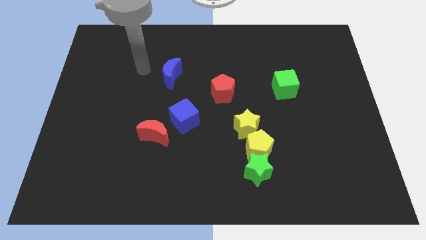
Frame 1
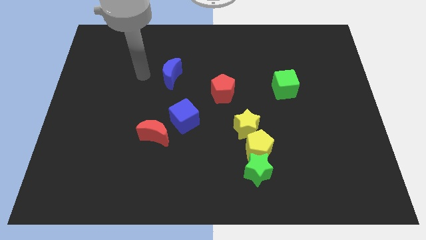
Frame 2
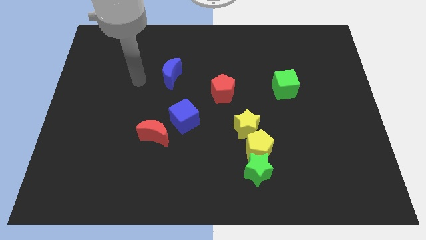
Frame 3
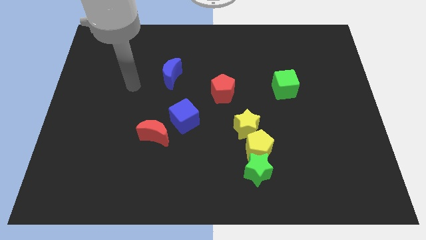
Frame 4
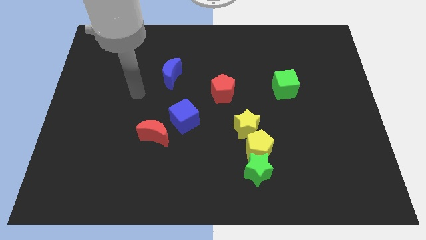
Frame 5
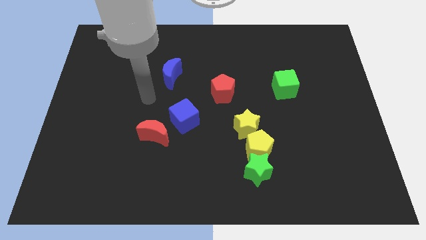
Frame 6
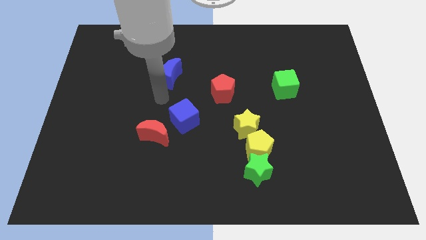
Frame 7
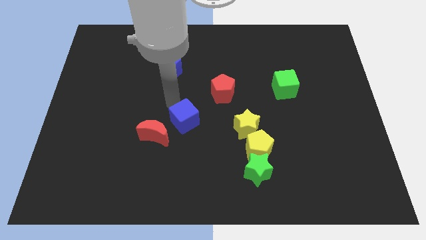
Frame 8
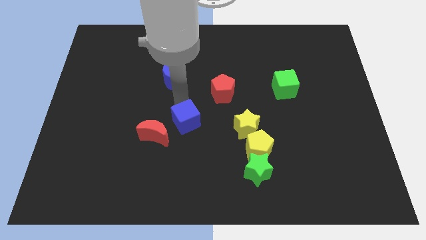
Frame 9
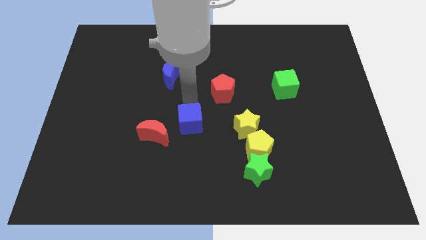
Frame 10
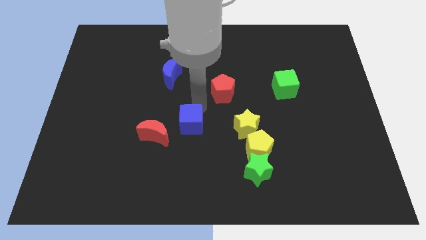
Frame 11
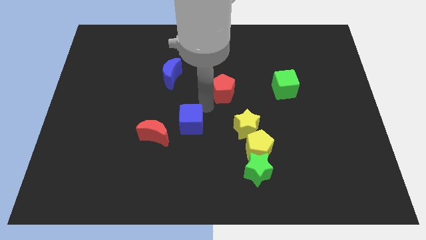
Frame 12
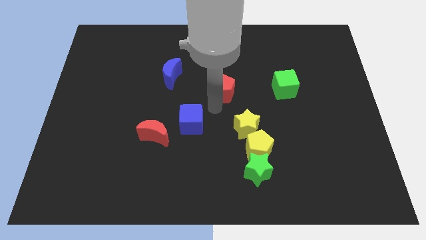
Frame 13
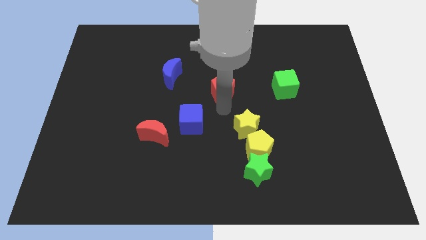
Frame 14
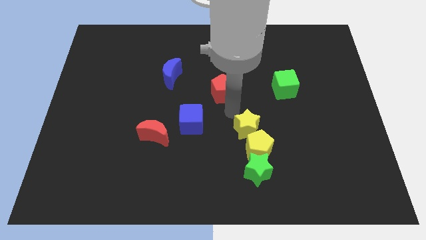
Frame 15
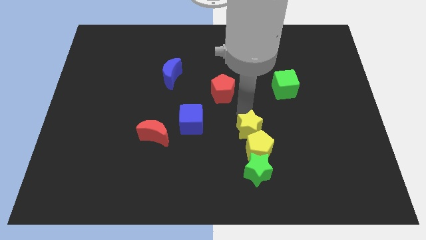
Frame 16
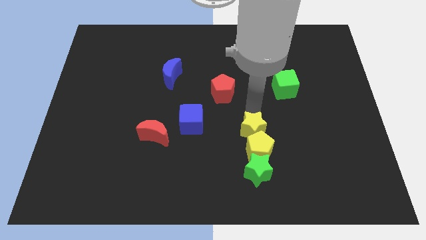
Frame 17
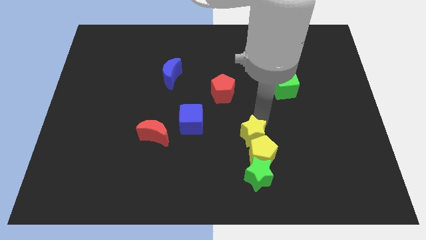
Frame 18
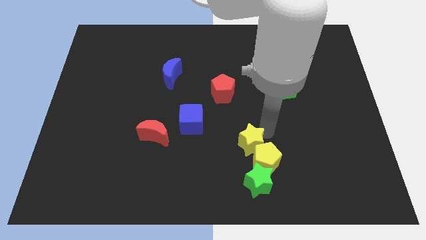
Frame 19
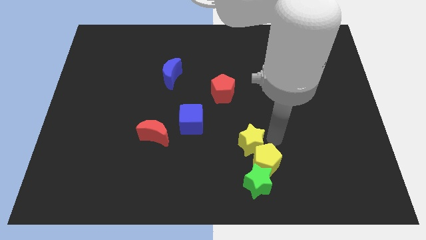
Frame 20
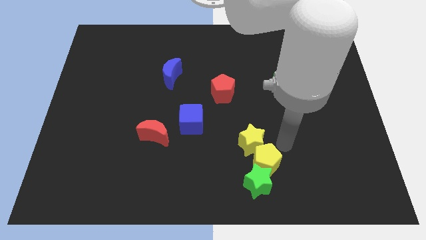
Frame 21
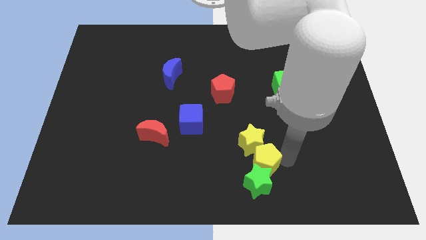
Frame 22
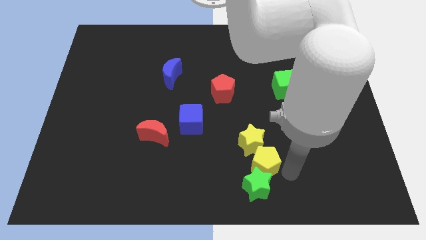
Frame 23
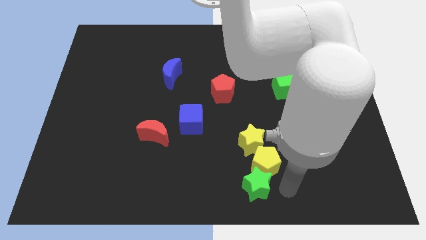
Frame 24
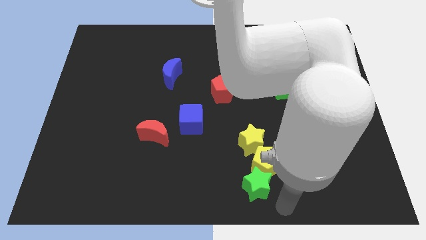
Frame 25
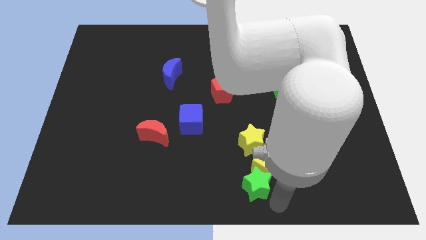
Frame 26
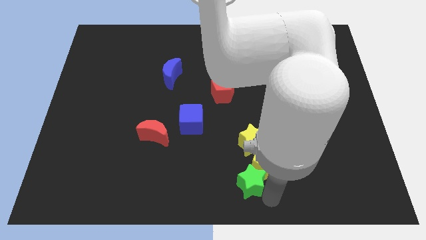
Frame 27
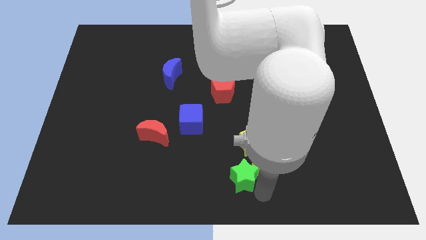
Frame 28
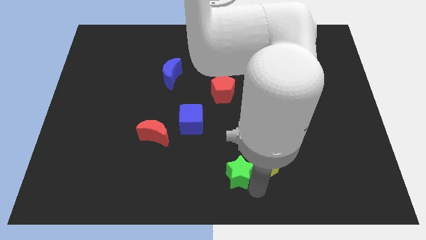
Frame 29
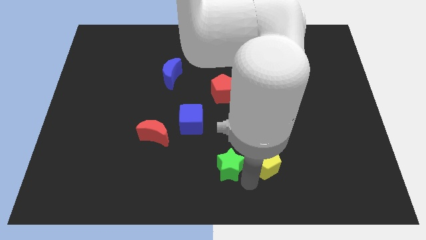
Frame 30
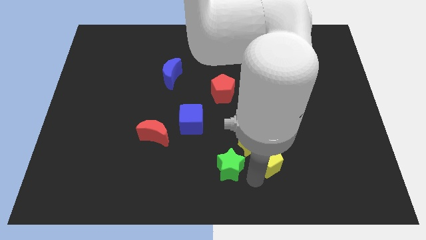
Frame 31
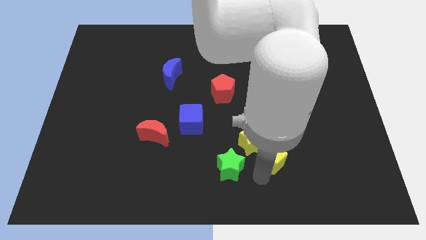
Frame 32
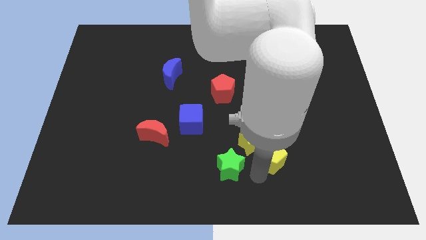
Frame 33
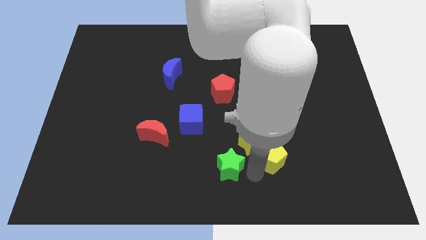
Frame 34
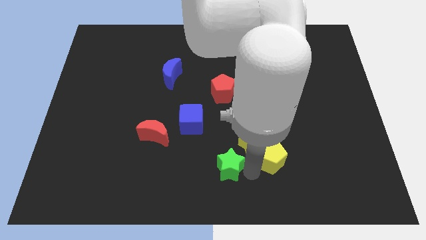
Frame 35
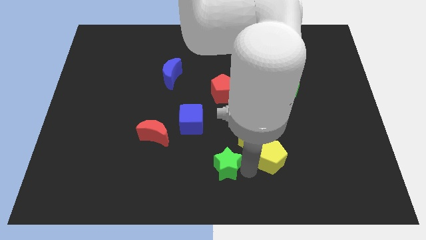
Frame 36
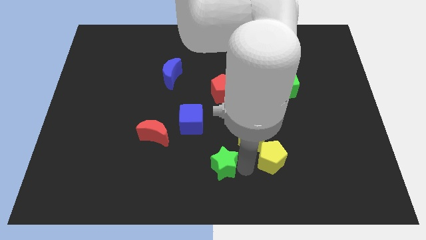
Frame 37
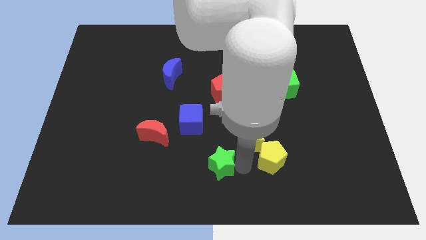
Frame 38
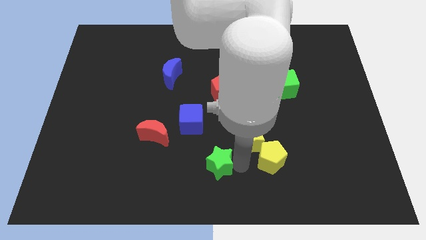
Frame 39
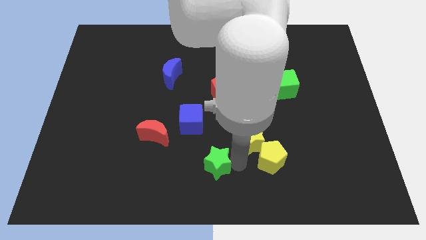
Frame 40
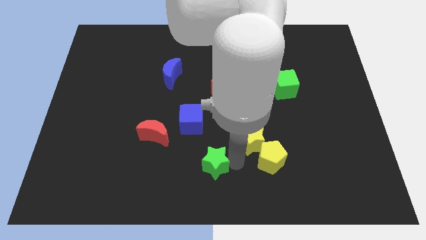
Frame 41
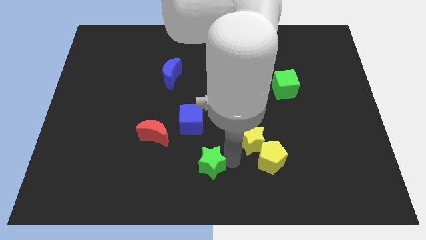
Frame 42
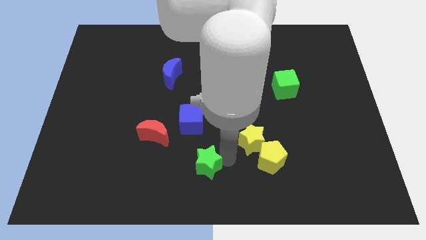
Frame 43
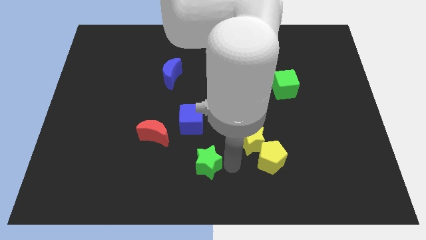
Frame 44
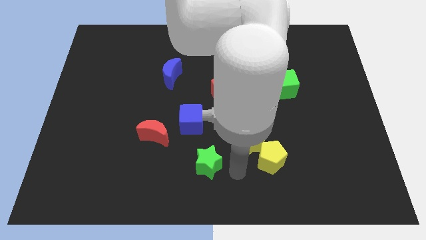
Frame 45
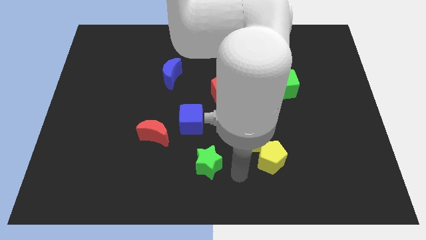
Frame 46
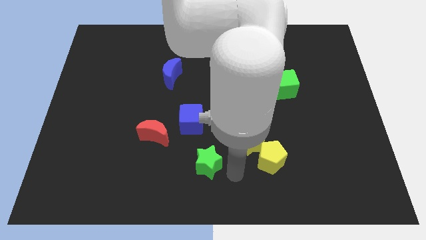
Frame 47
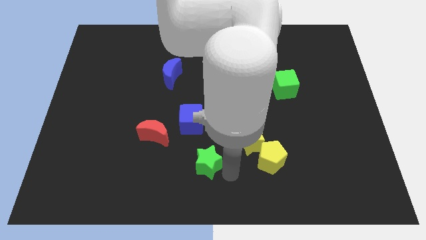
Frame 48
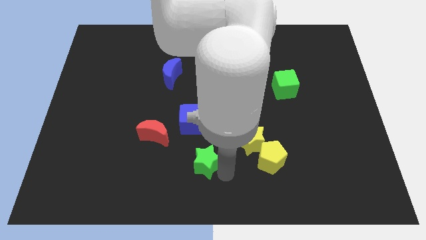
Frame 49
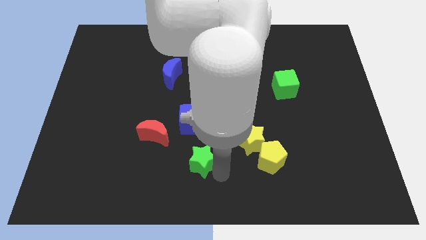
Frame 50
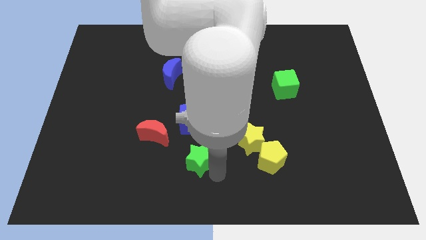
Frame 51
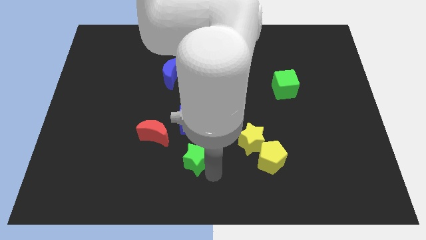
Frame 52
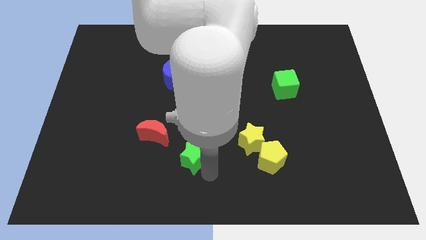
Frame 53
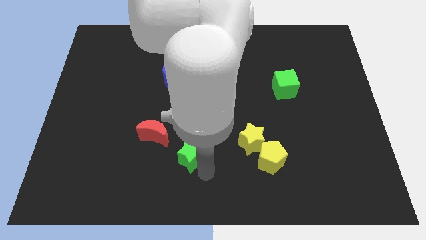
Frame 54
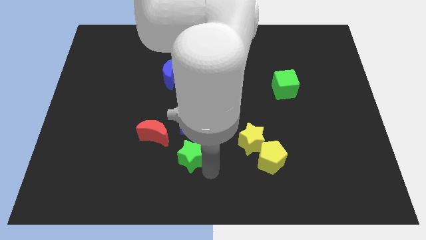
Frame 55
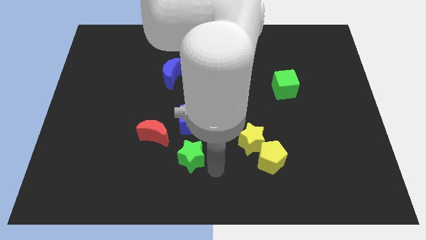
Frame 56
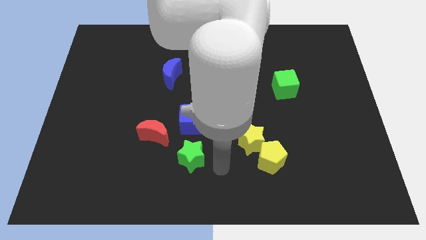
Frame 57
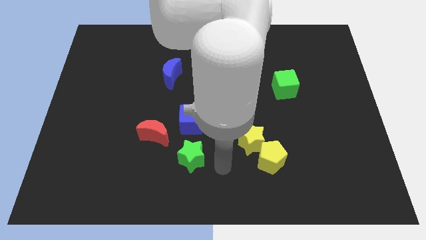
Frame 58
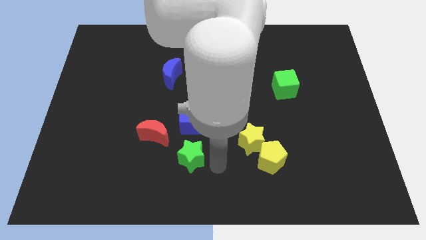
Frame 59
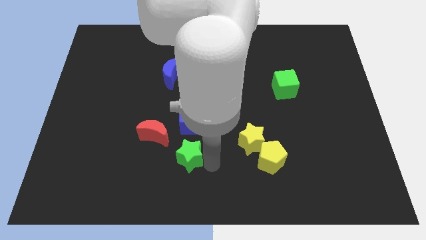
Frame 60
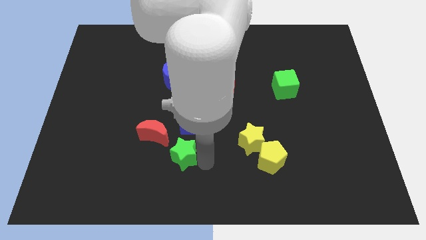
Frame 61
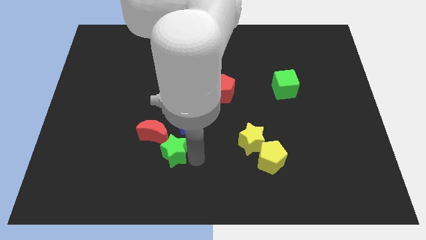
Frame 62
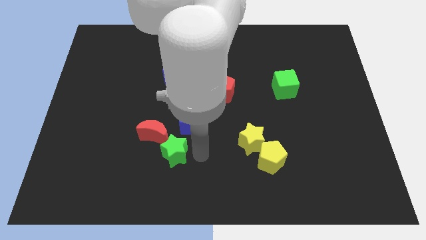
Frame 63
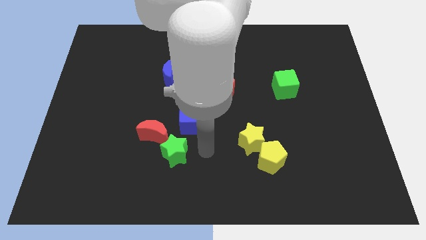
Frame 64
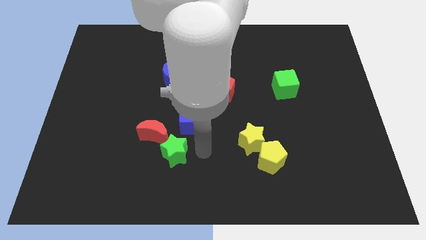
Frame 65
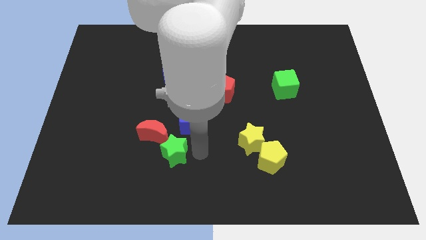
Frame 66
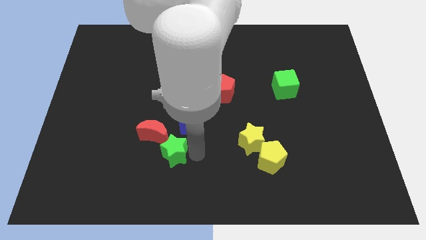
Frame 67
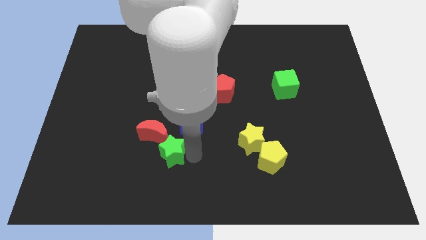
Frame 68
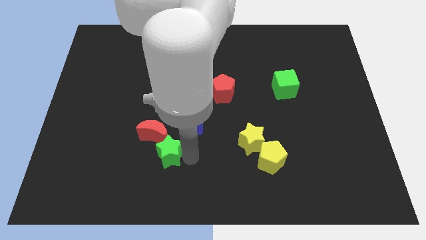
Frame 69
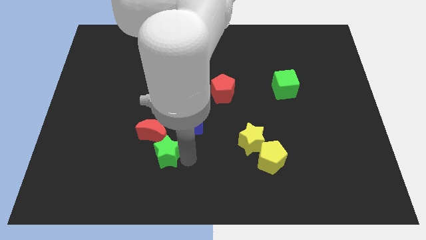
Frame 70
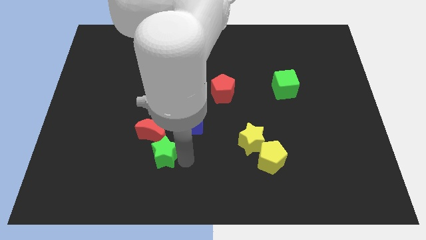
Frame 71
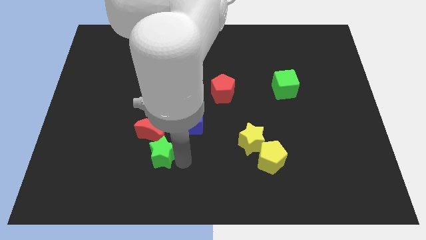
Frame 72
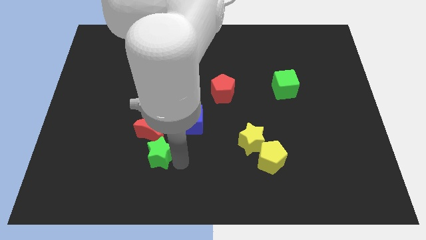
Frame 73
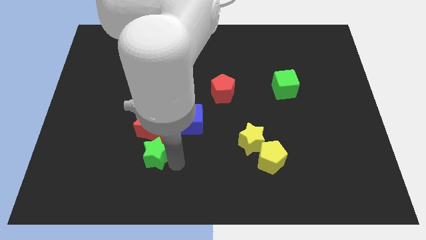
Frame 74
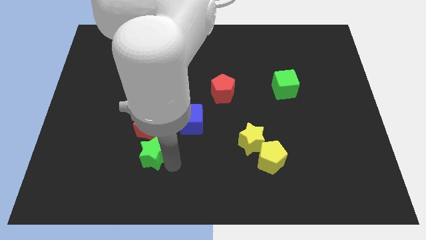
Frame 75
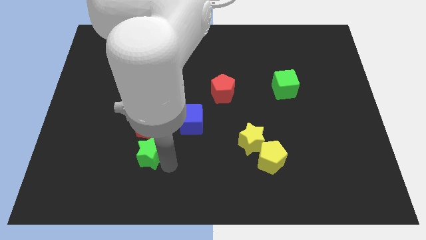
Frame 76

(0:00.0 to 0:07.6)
move the green star diagonally down and to the left of the red moon
